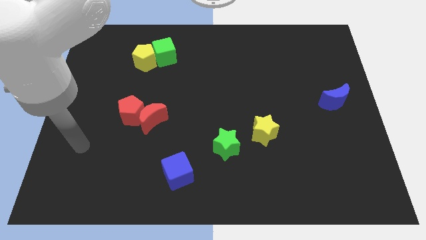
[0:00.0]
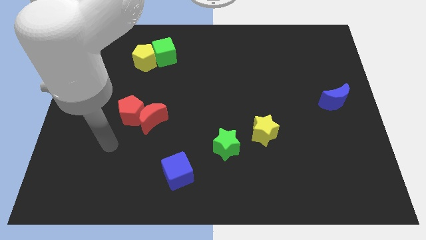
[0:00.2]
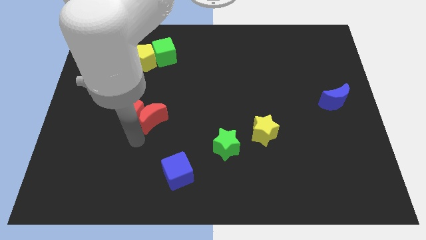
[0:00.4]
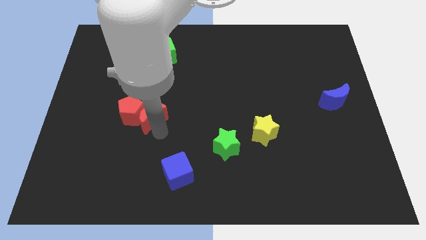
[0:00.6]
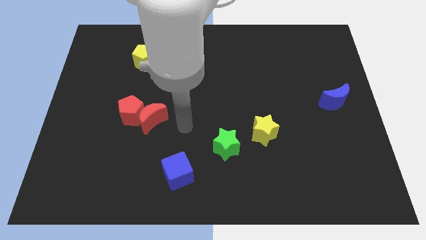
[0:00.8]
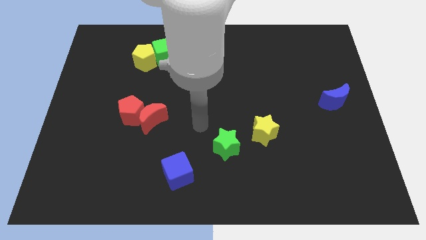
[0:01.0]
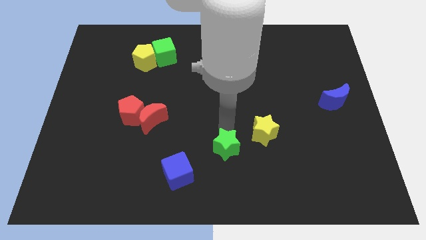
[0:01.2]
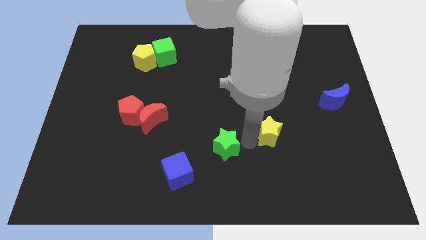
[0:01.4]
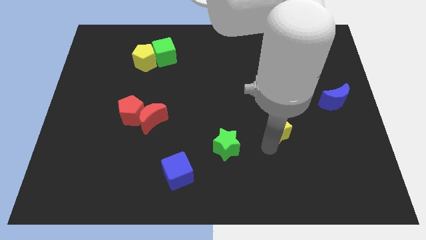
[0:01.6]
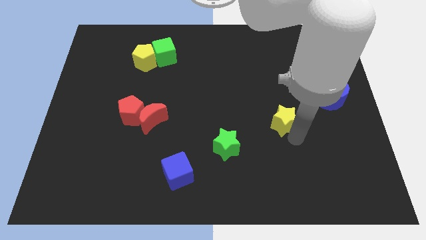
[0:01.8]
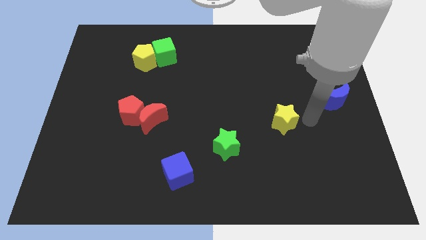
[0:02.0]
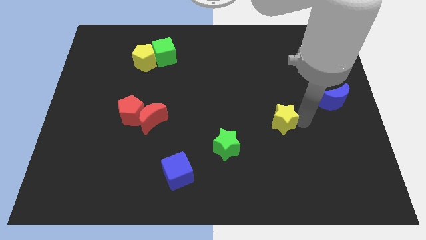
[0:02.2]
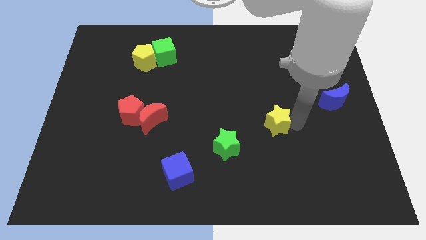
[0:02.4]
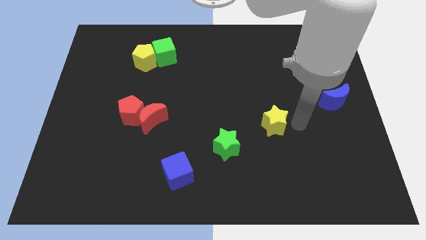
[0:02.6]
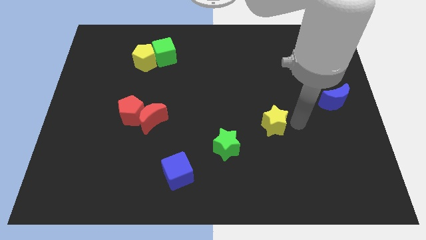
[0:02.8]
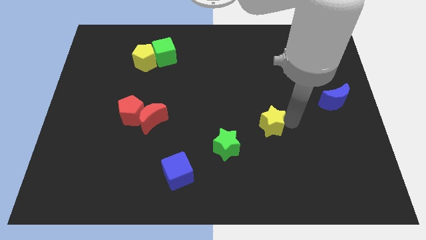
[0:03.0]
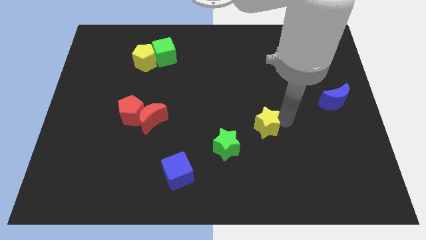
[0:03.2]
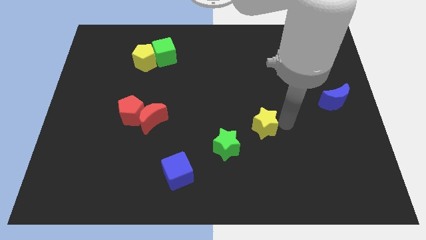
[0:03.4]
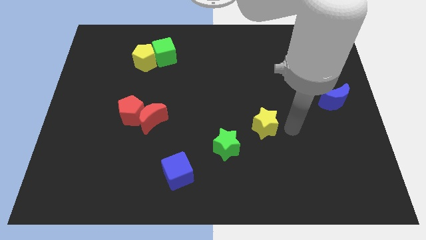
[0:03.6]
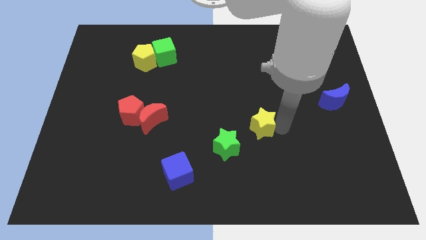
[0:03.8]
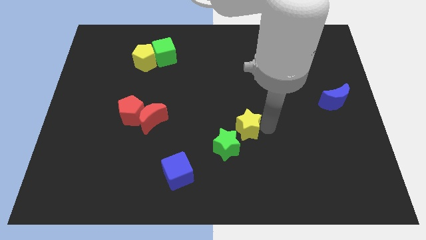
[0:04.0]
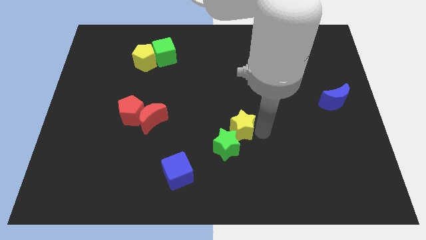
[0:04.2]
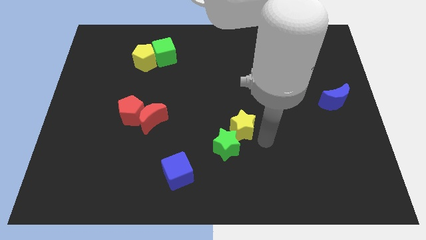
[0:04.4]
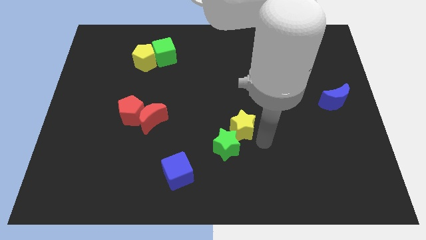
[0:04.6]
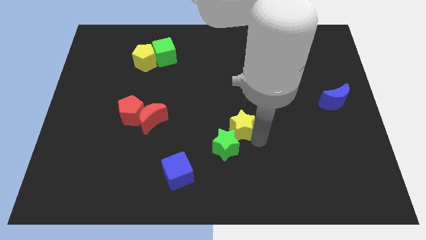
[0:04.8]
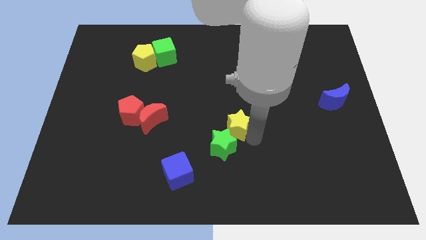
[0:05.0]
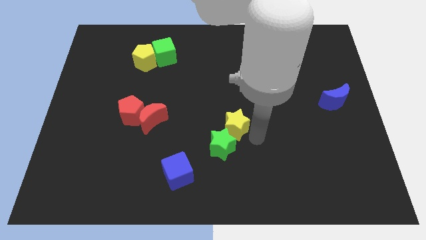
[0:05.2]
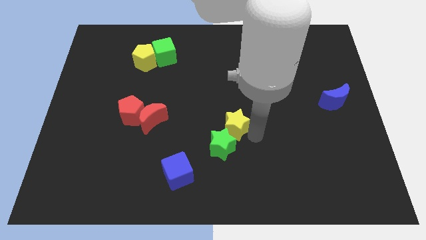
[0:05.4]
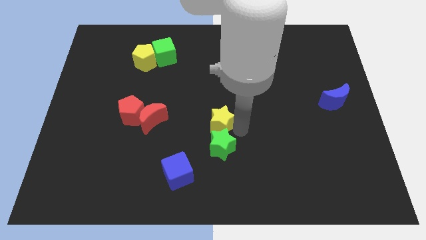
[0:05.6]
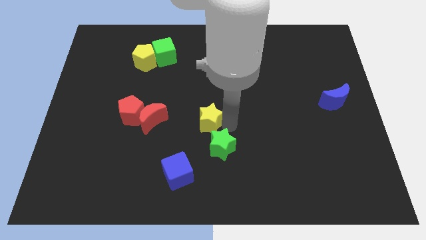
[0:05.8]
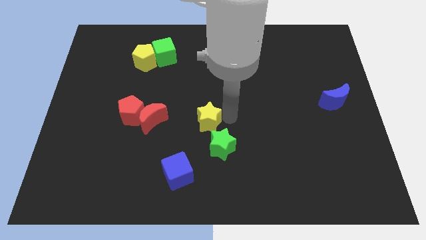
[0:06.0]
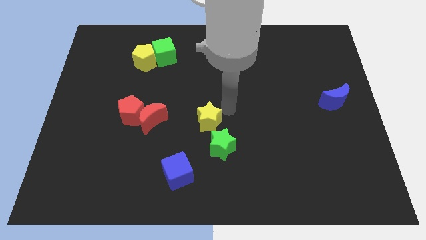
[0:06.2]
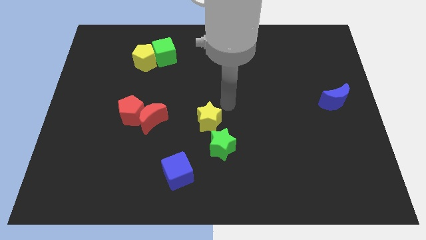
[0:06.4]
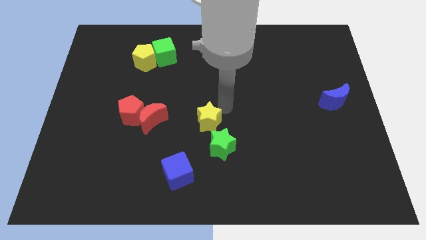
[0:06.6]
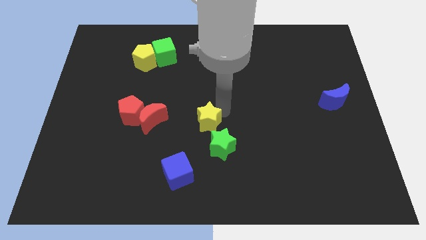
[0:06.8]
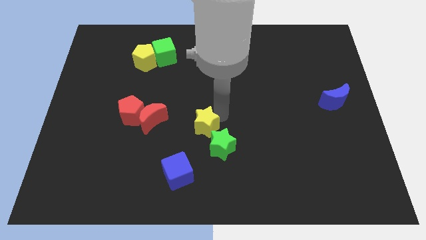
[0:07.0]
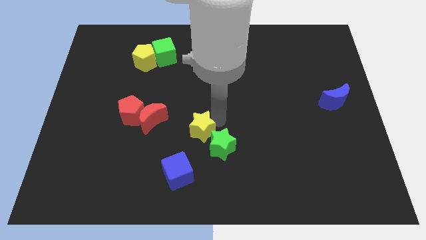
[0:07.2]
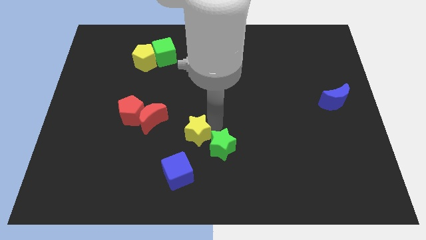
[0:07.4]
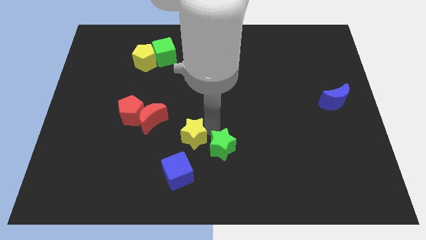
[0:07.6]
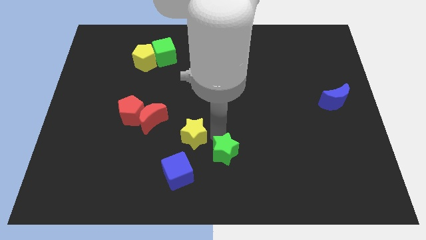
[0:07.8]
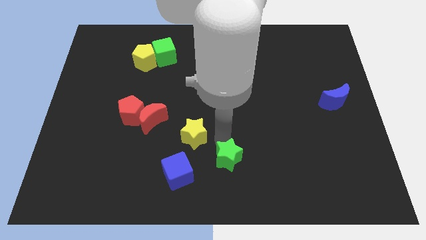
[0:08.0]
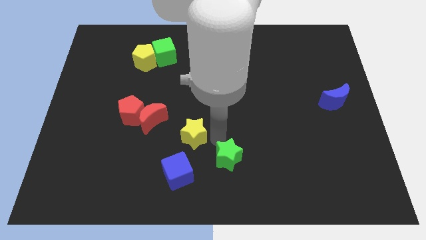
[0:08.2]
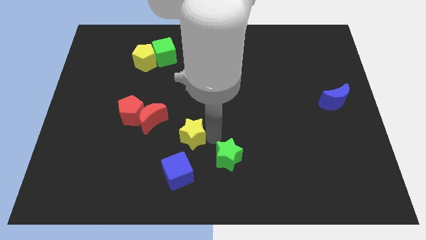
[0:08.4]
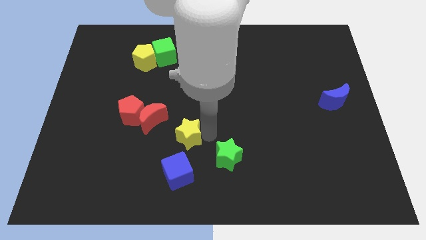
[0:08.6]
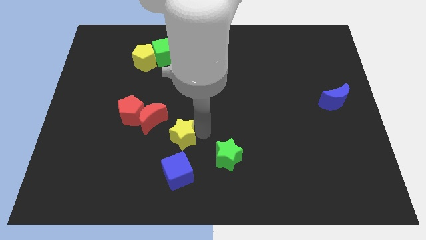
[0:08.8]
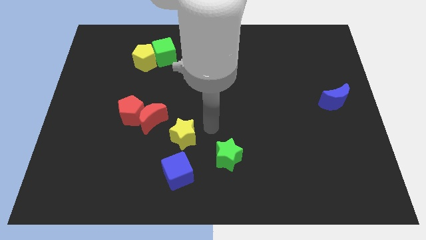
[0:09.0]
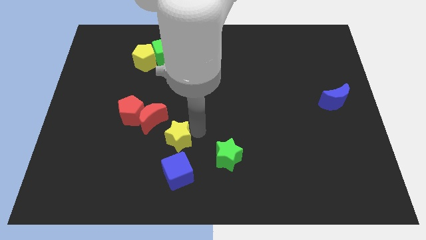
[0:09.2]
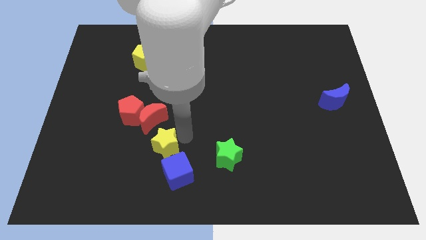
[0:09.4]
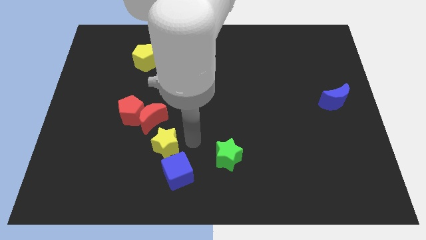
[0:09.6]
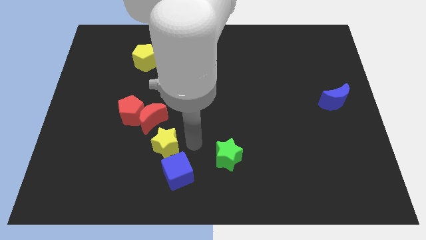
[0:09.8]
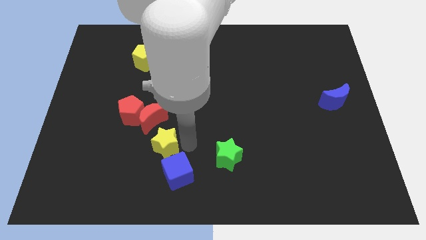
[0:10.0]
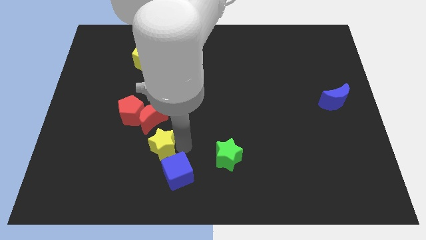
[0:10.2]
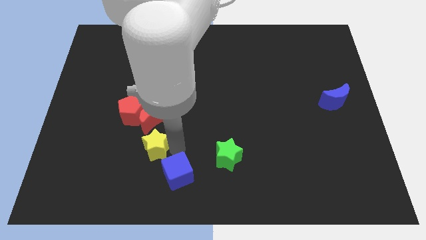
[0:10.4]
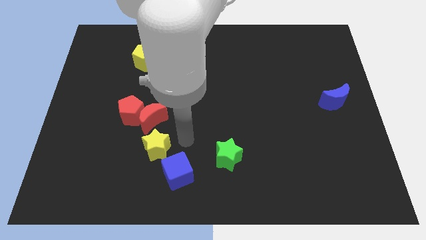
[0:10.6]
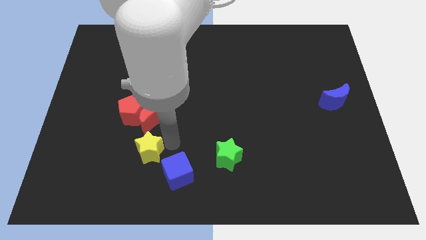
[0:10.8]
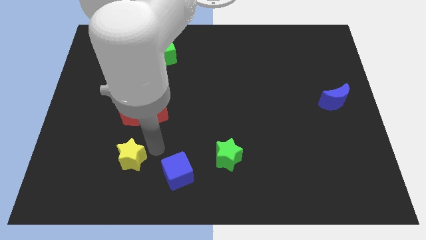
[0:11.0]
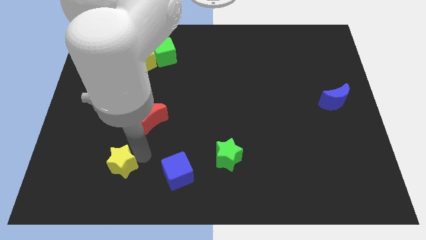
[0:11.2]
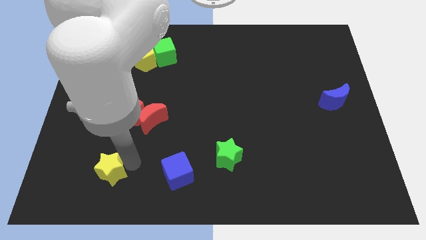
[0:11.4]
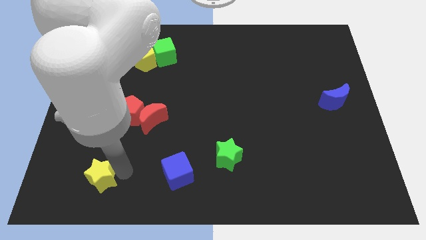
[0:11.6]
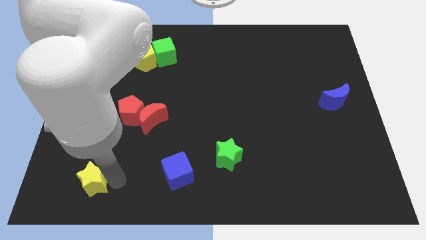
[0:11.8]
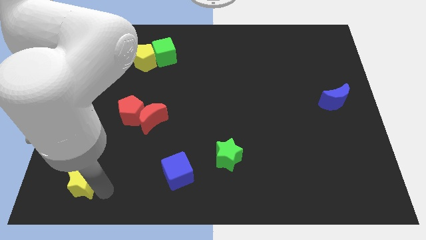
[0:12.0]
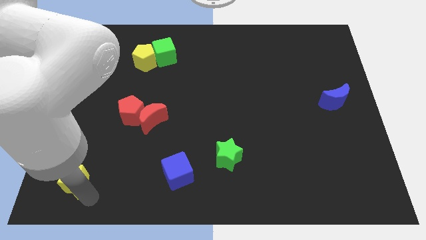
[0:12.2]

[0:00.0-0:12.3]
move the yellow star to the bottom left
